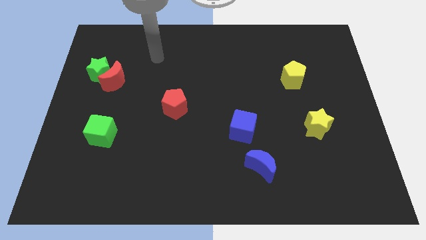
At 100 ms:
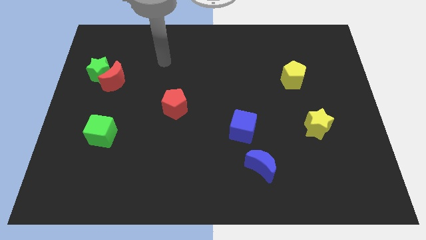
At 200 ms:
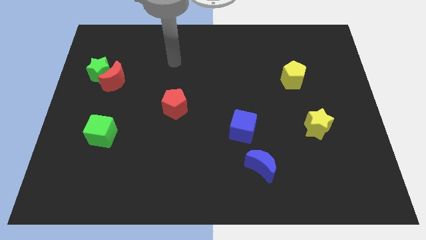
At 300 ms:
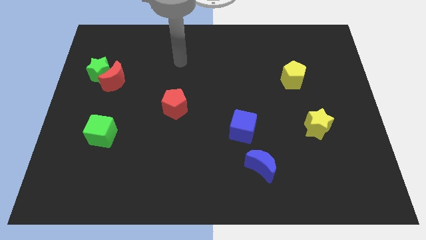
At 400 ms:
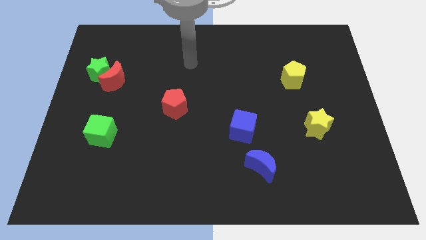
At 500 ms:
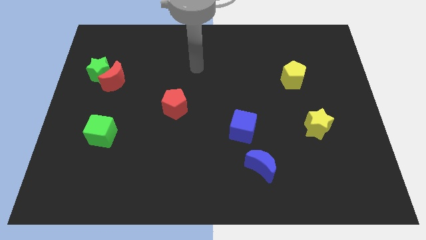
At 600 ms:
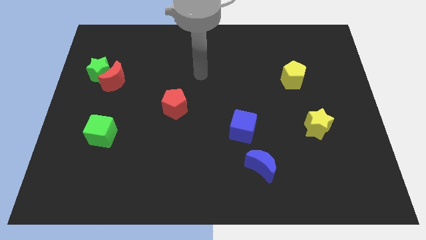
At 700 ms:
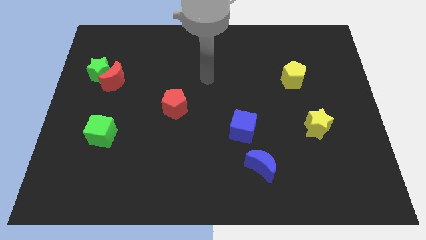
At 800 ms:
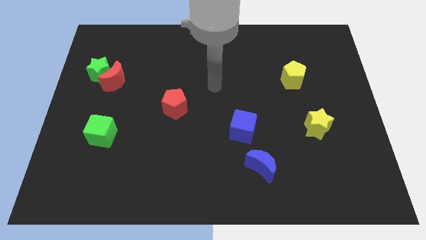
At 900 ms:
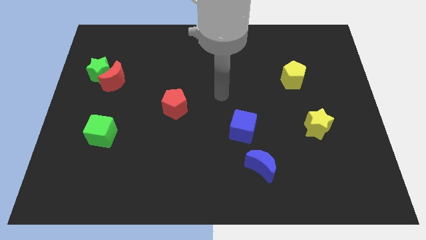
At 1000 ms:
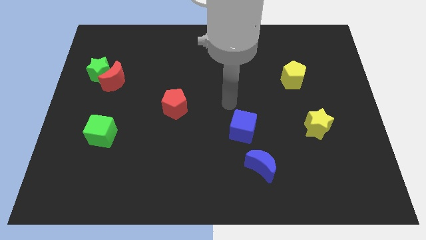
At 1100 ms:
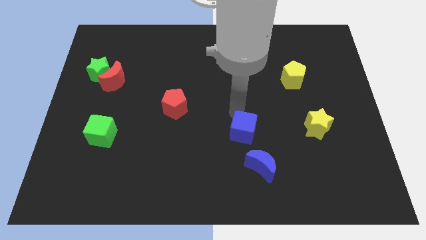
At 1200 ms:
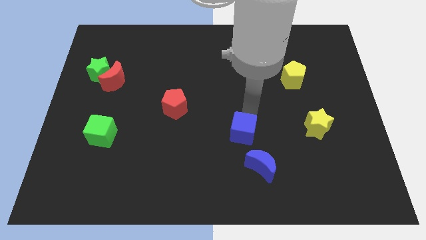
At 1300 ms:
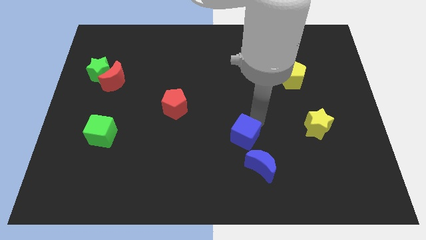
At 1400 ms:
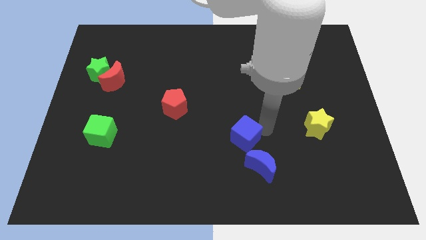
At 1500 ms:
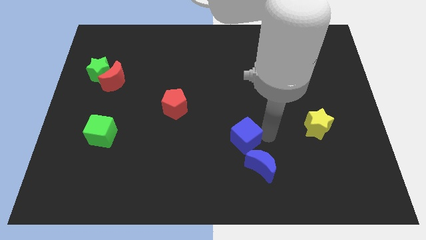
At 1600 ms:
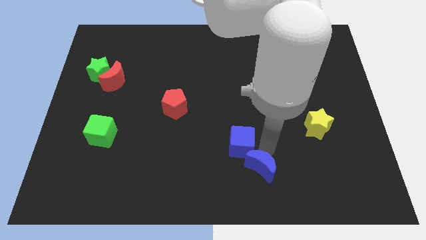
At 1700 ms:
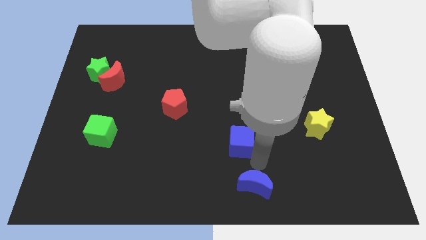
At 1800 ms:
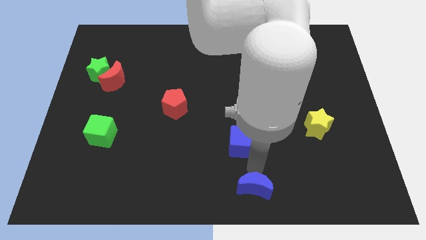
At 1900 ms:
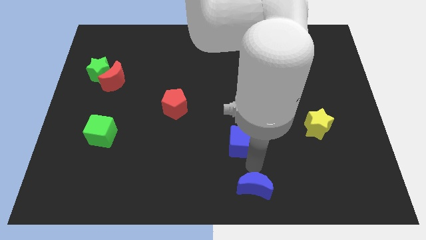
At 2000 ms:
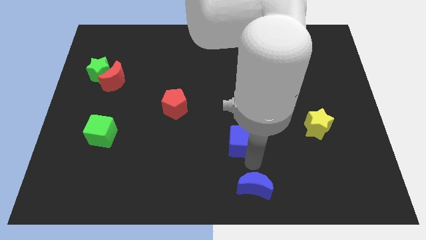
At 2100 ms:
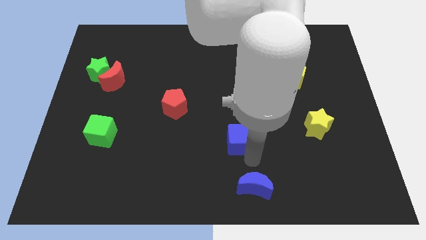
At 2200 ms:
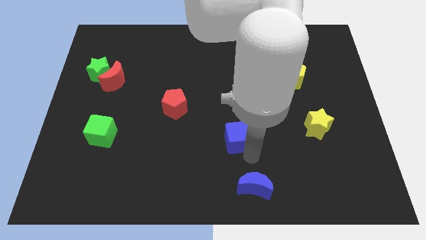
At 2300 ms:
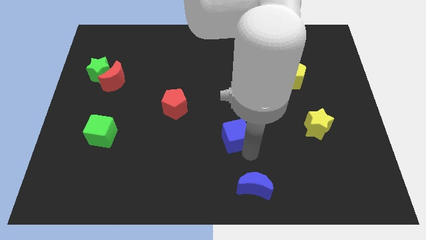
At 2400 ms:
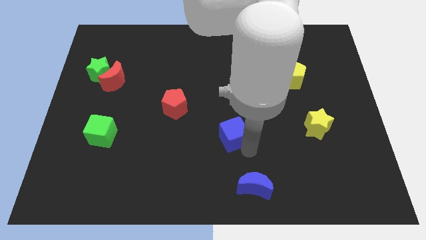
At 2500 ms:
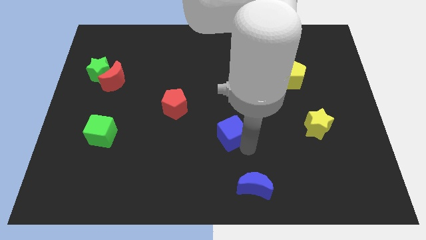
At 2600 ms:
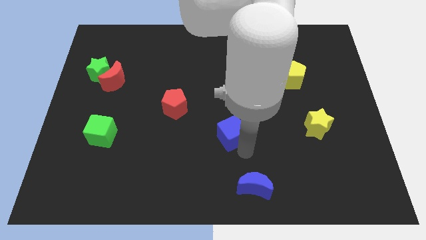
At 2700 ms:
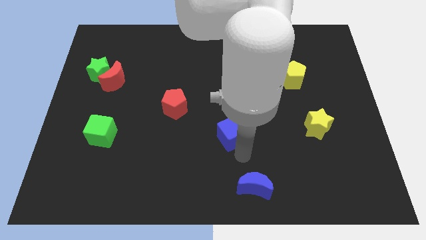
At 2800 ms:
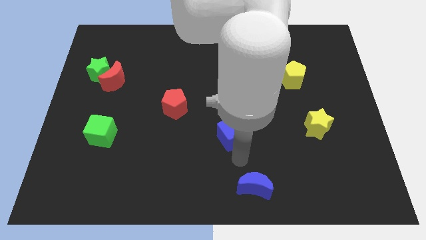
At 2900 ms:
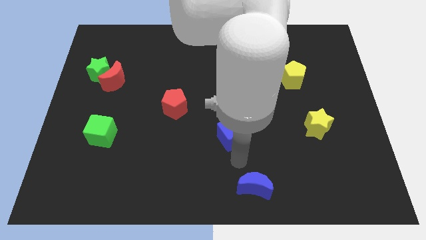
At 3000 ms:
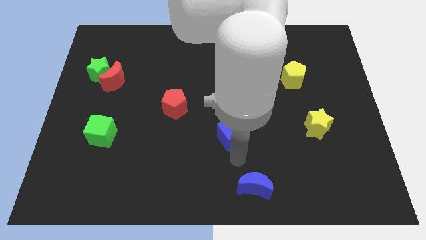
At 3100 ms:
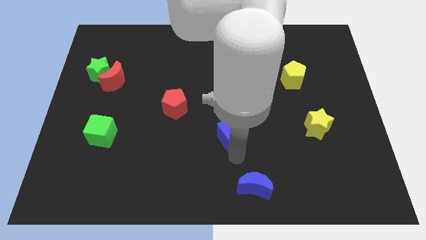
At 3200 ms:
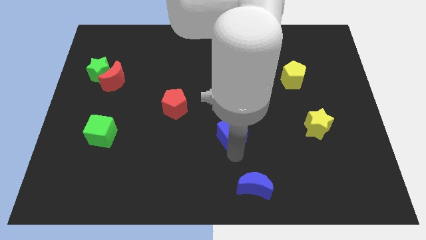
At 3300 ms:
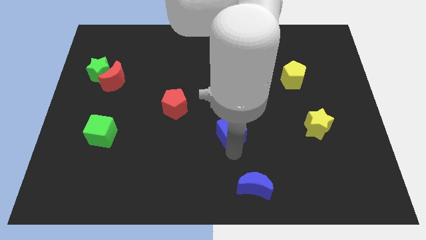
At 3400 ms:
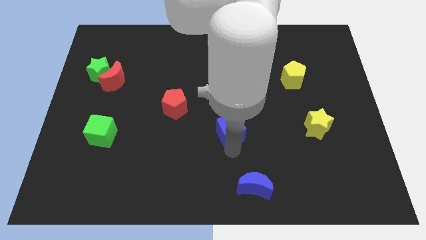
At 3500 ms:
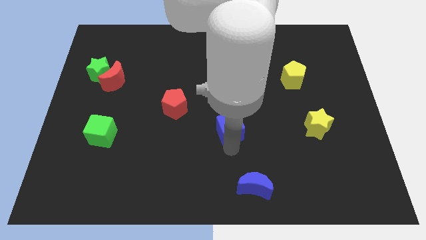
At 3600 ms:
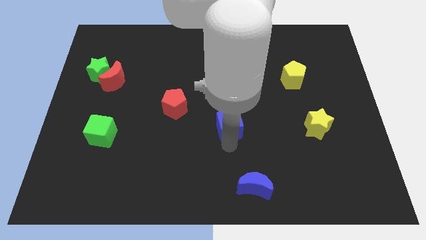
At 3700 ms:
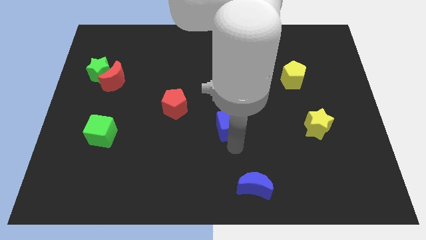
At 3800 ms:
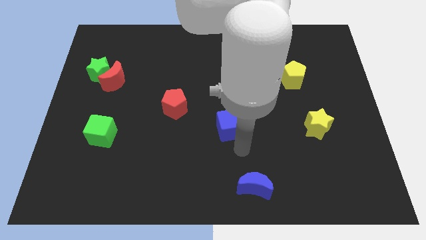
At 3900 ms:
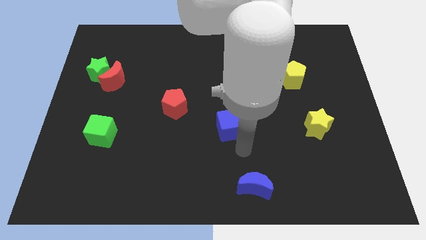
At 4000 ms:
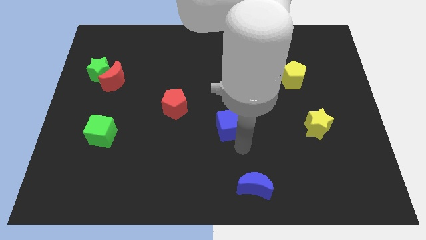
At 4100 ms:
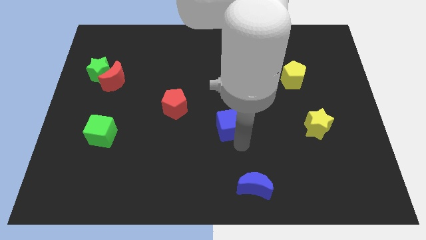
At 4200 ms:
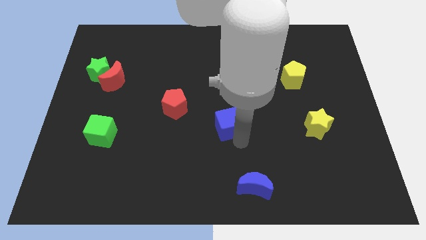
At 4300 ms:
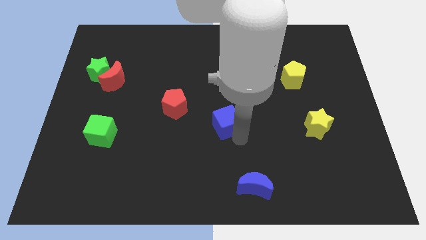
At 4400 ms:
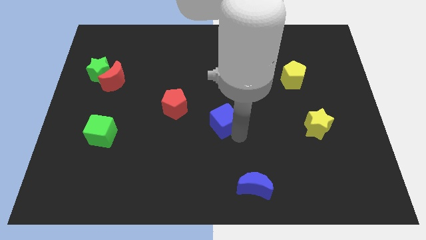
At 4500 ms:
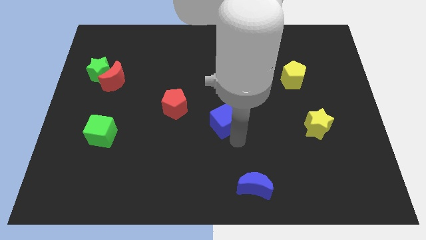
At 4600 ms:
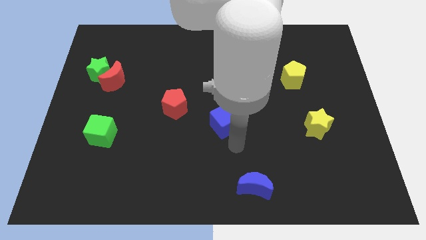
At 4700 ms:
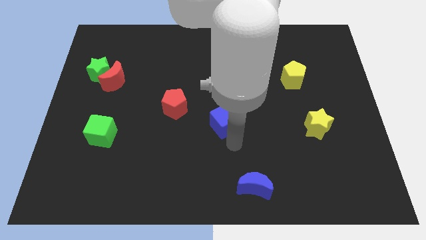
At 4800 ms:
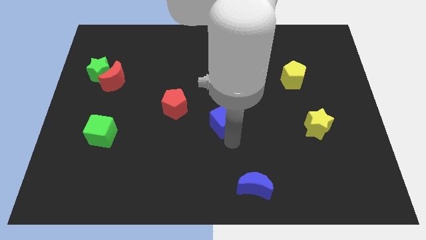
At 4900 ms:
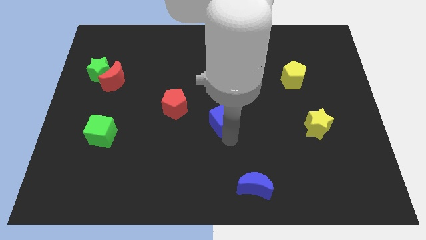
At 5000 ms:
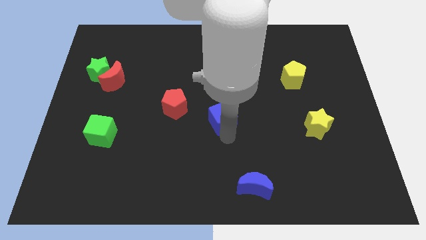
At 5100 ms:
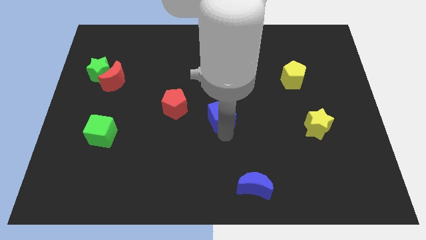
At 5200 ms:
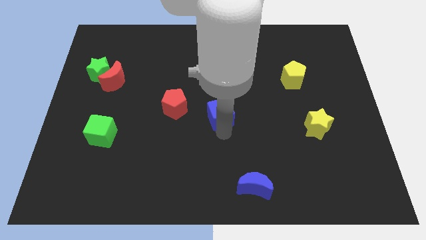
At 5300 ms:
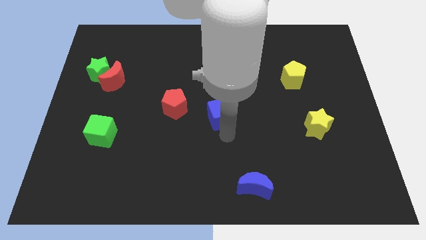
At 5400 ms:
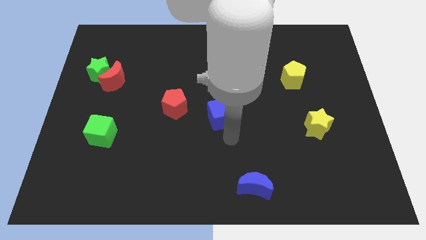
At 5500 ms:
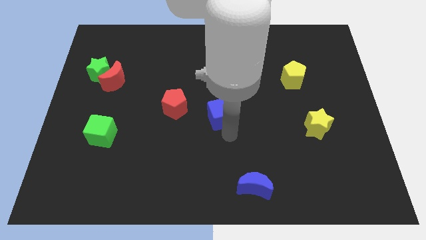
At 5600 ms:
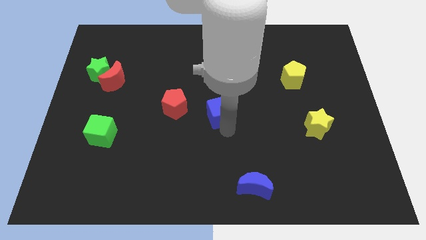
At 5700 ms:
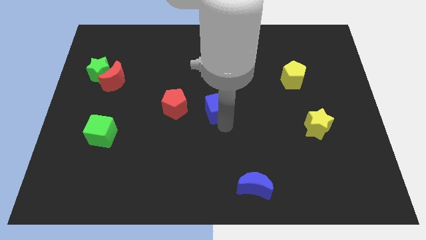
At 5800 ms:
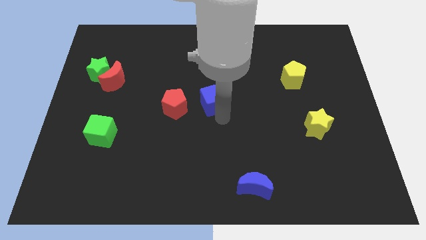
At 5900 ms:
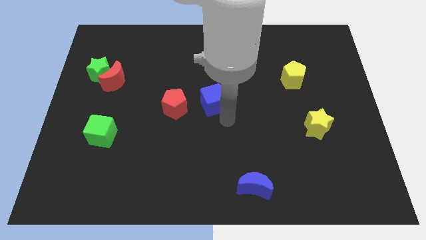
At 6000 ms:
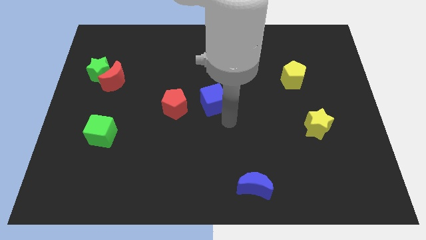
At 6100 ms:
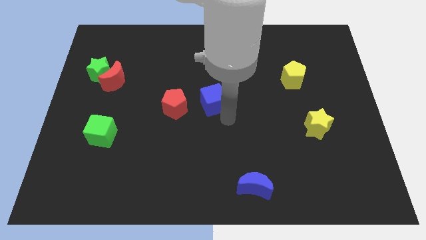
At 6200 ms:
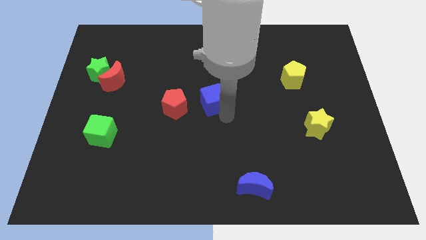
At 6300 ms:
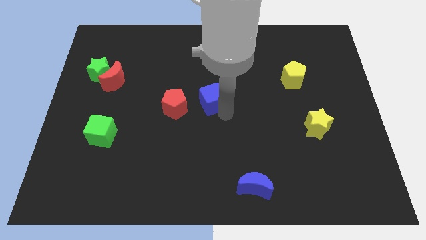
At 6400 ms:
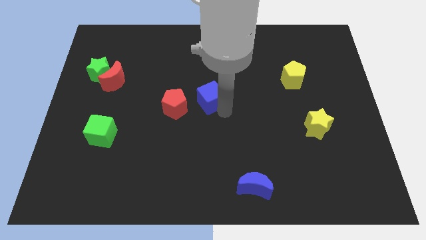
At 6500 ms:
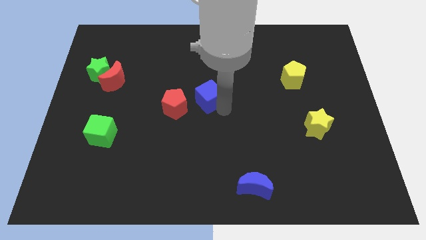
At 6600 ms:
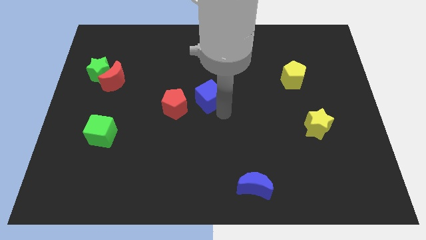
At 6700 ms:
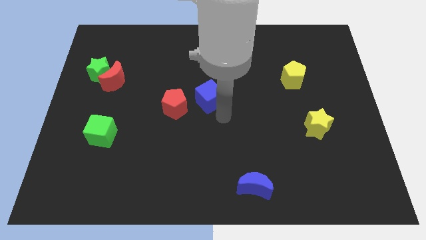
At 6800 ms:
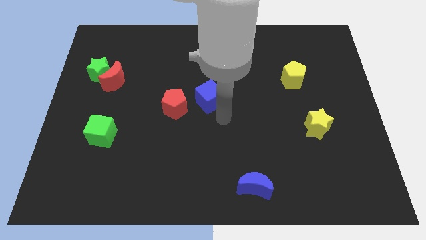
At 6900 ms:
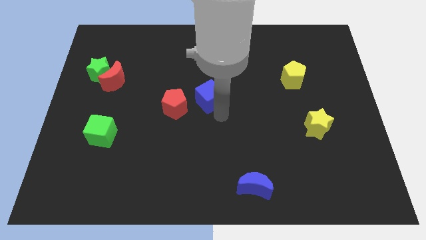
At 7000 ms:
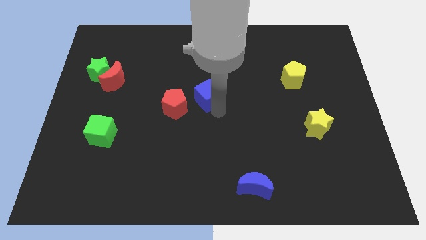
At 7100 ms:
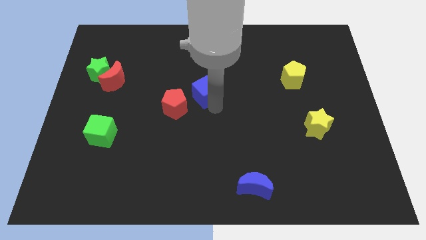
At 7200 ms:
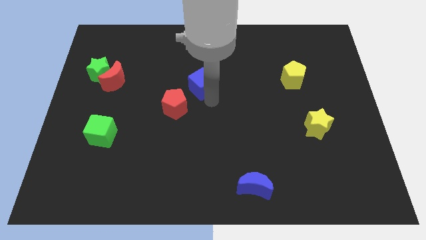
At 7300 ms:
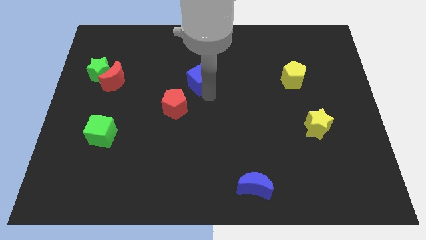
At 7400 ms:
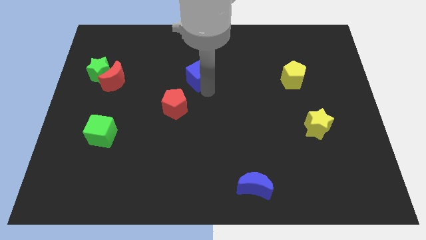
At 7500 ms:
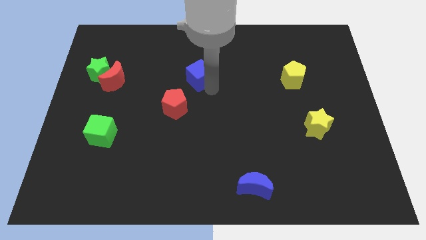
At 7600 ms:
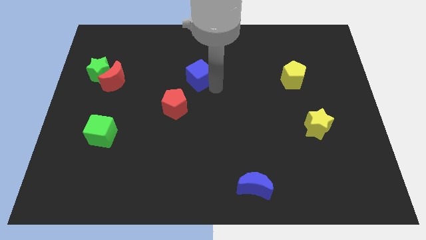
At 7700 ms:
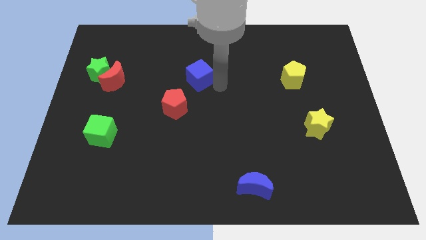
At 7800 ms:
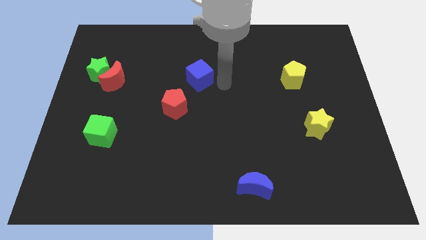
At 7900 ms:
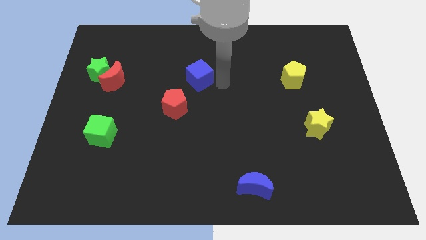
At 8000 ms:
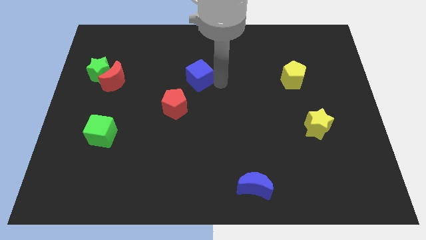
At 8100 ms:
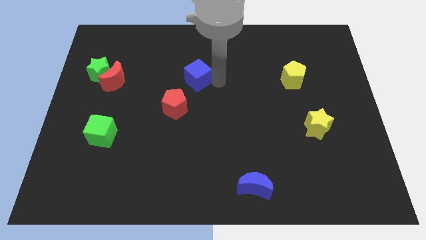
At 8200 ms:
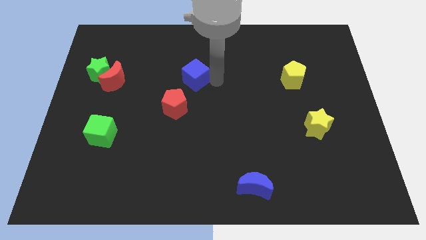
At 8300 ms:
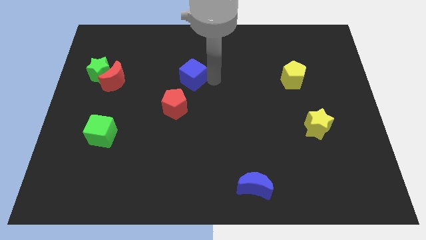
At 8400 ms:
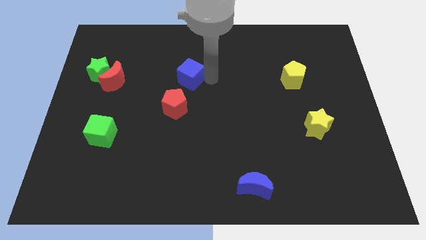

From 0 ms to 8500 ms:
move the blue cube upwards and then left
